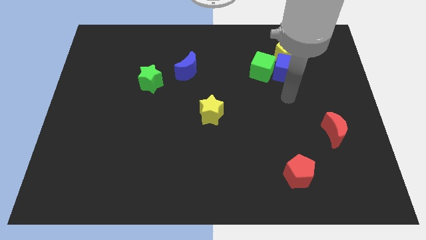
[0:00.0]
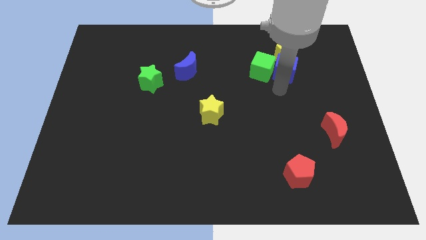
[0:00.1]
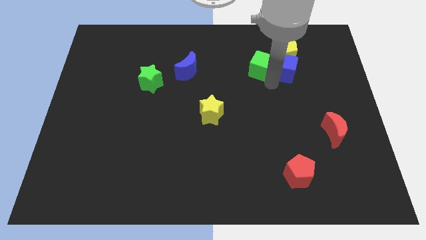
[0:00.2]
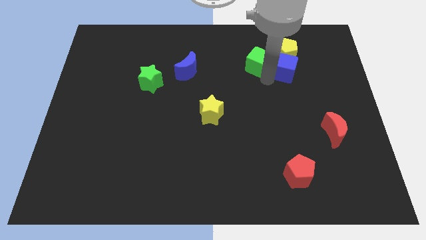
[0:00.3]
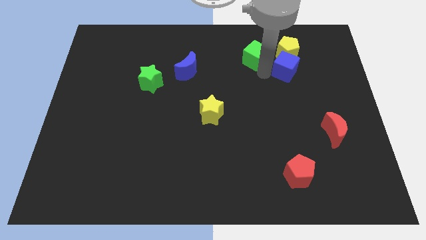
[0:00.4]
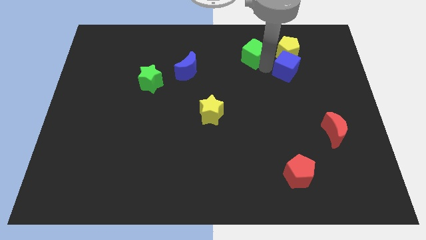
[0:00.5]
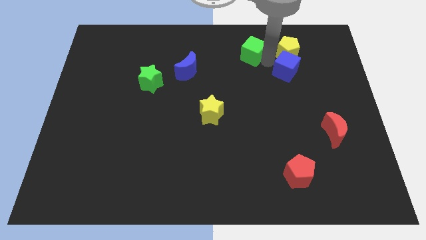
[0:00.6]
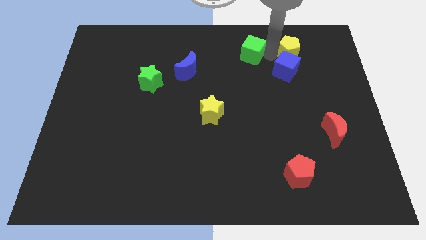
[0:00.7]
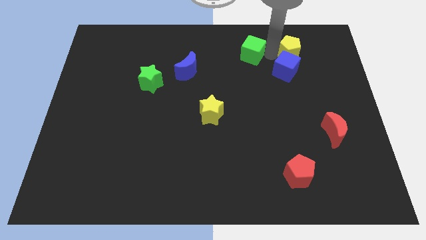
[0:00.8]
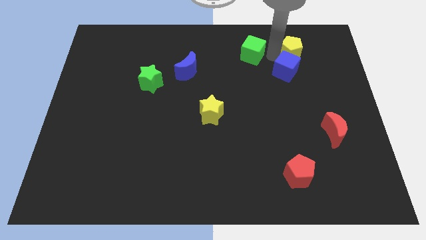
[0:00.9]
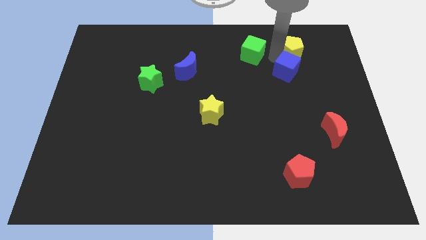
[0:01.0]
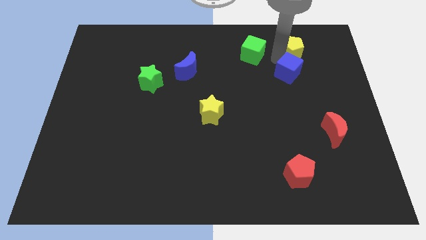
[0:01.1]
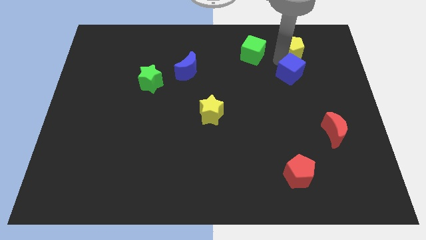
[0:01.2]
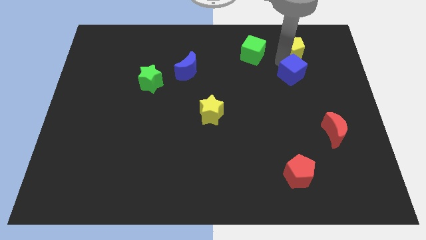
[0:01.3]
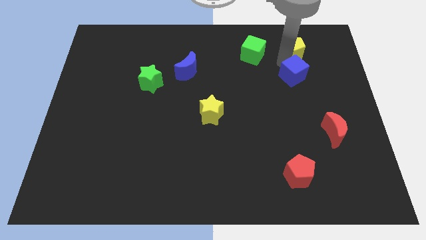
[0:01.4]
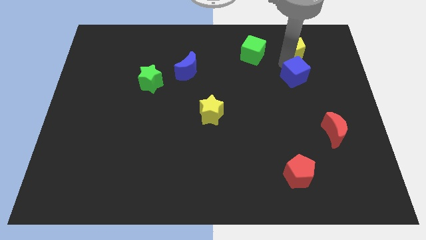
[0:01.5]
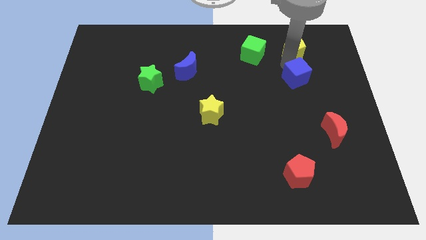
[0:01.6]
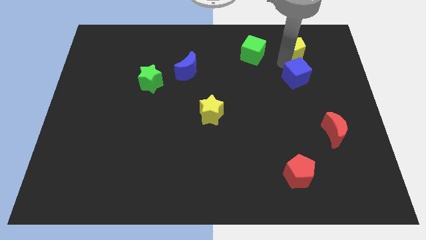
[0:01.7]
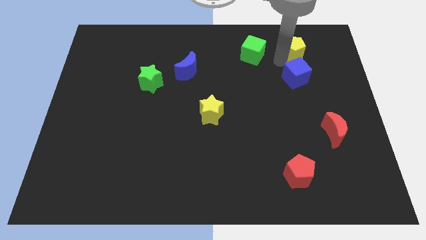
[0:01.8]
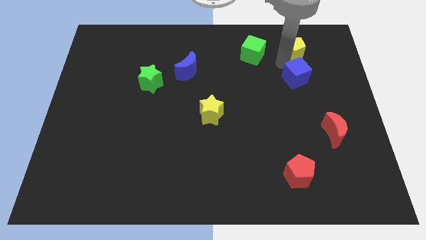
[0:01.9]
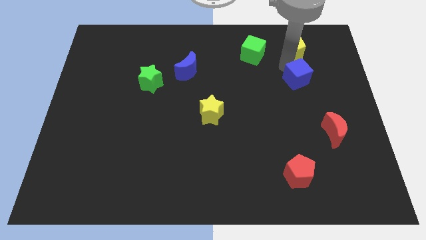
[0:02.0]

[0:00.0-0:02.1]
pull the blue cube apart from the green cube and yellow pentagon

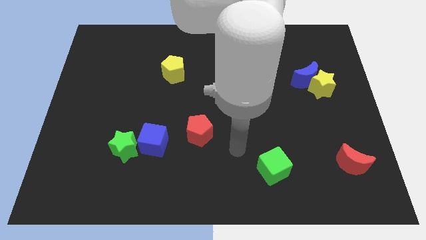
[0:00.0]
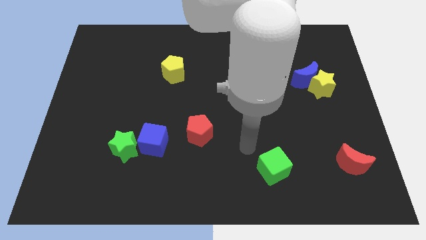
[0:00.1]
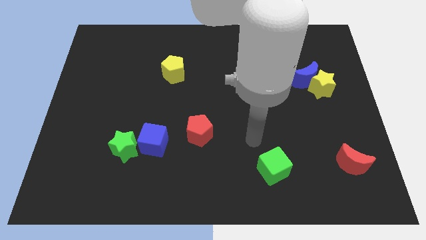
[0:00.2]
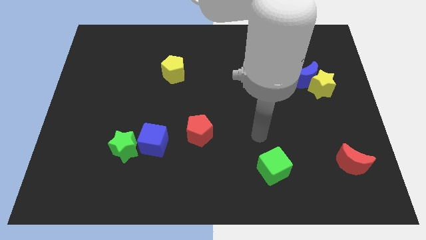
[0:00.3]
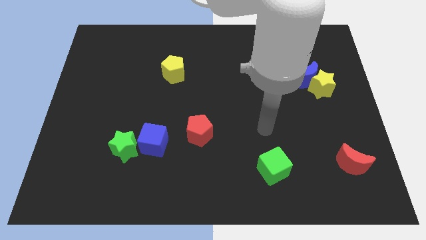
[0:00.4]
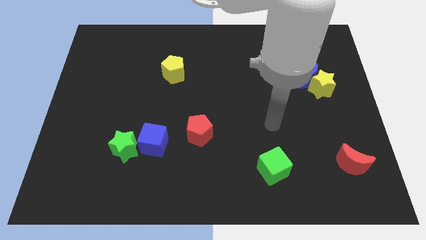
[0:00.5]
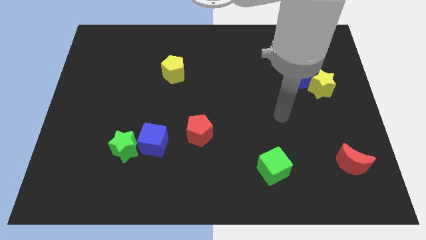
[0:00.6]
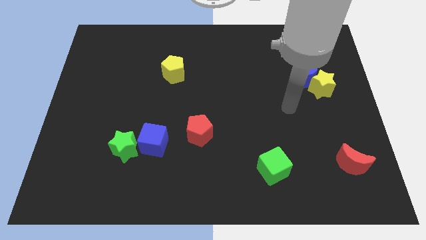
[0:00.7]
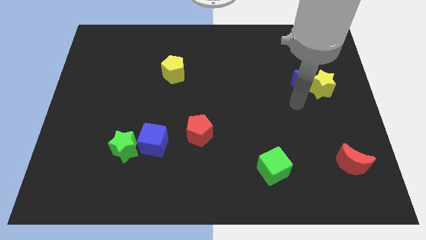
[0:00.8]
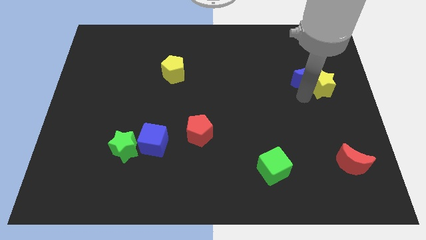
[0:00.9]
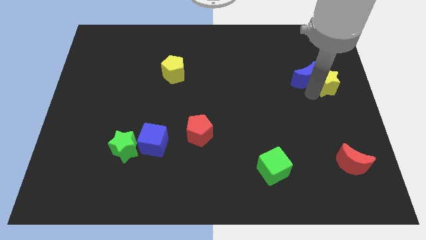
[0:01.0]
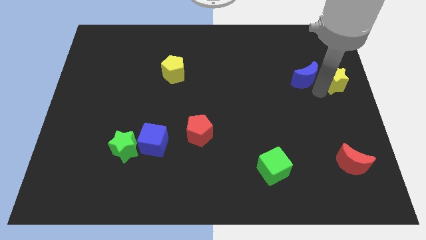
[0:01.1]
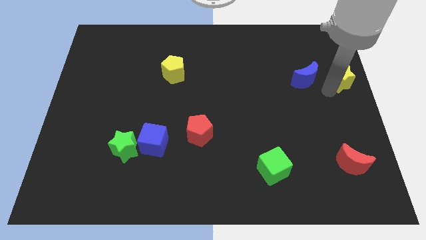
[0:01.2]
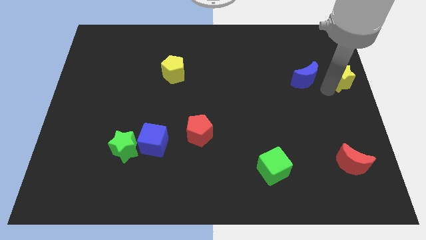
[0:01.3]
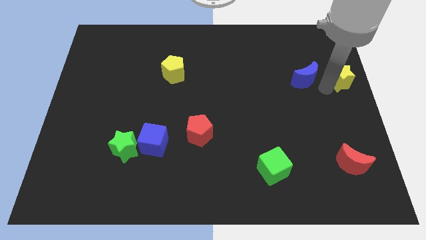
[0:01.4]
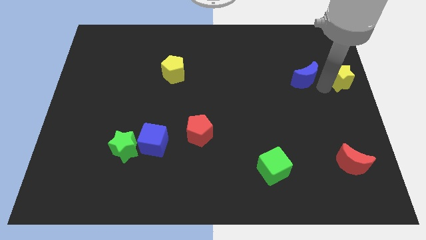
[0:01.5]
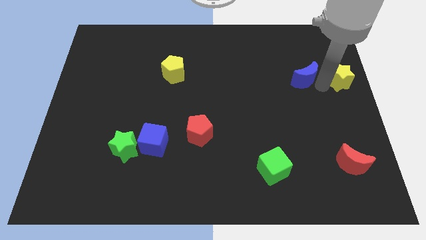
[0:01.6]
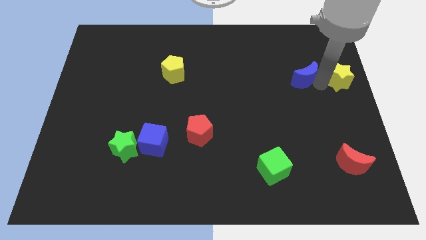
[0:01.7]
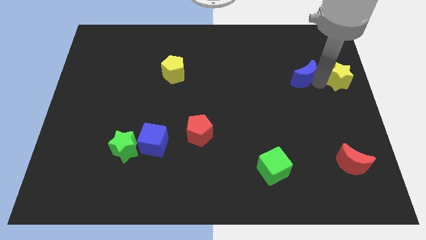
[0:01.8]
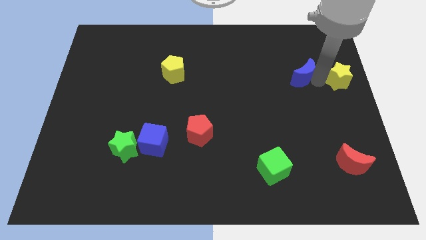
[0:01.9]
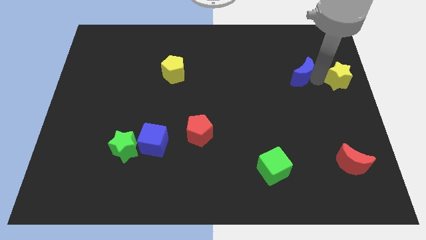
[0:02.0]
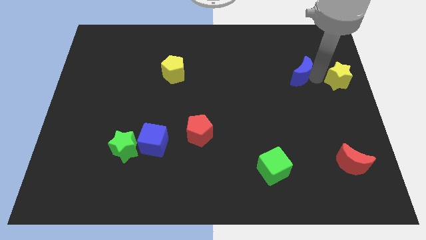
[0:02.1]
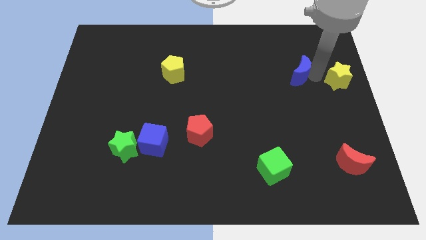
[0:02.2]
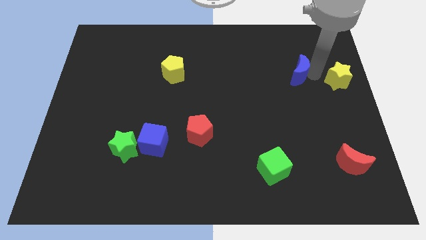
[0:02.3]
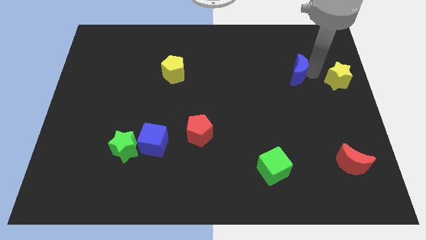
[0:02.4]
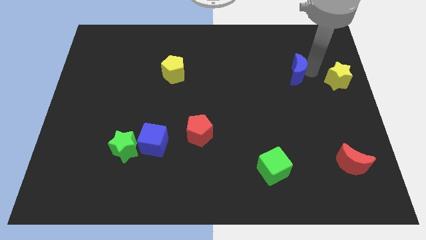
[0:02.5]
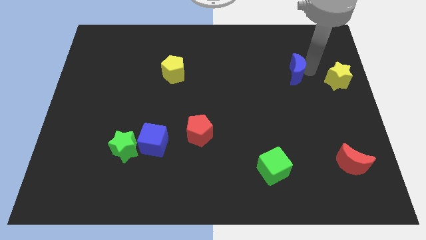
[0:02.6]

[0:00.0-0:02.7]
separate the blue moon from the yellow star

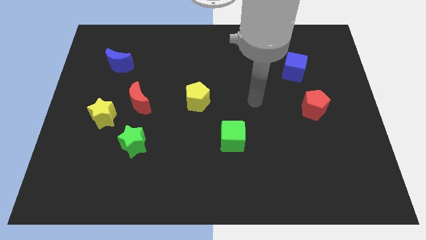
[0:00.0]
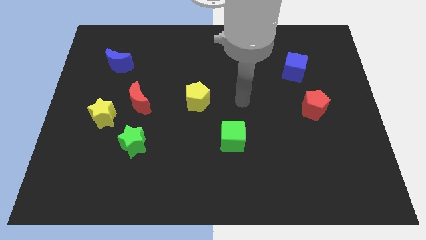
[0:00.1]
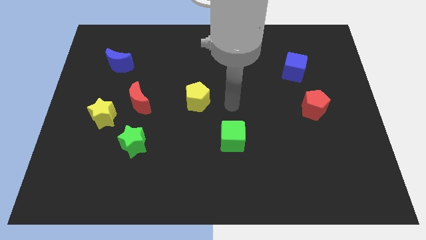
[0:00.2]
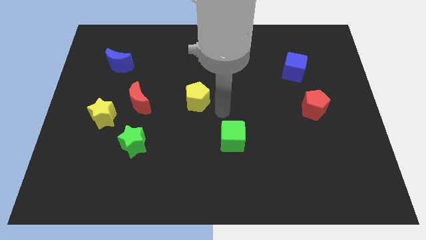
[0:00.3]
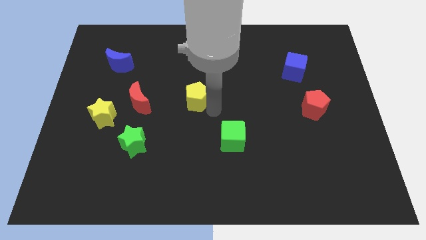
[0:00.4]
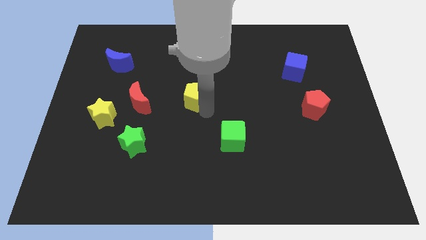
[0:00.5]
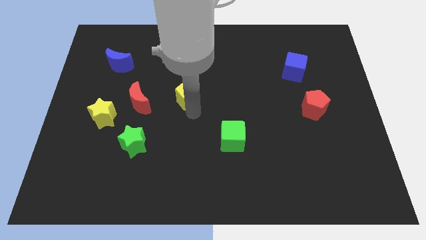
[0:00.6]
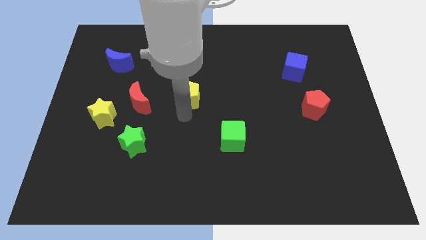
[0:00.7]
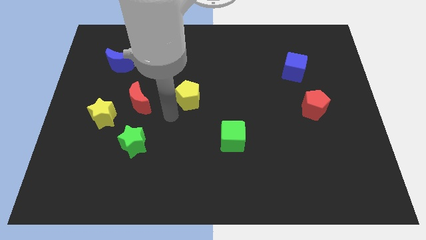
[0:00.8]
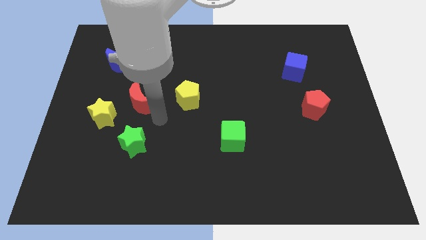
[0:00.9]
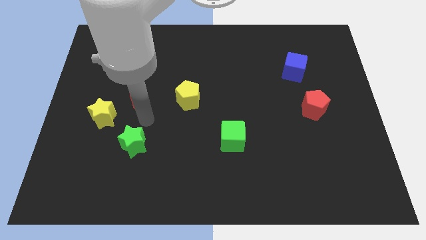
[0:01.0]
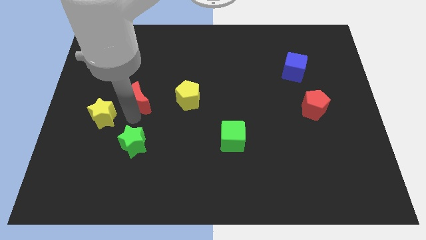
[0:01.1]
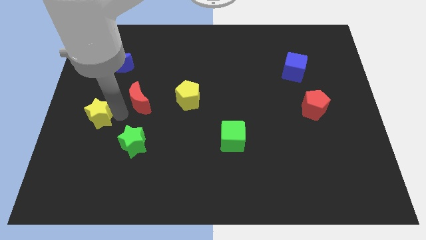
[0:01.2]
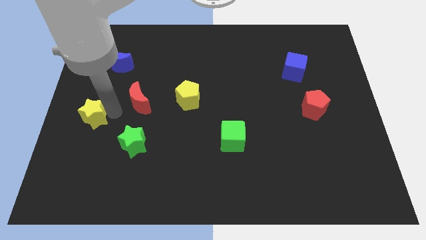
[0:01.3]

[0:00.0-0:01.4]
pull the red moon apart from the yellow star

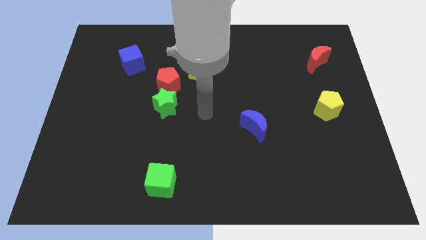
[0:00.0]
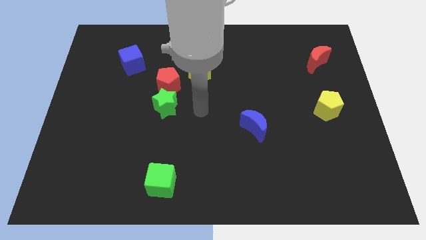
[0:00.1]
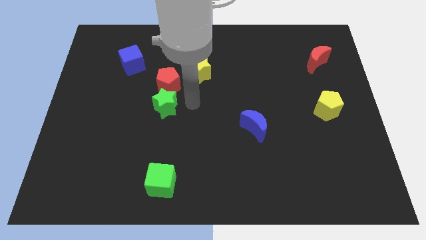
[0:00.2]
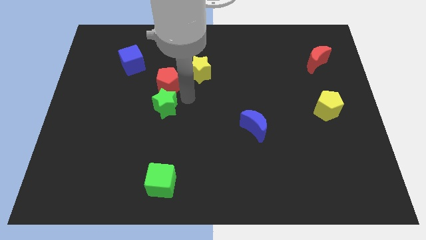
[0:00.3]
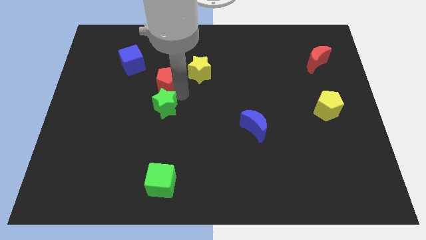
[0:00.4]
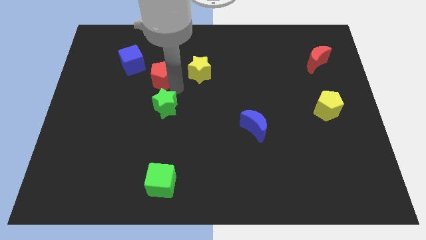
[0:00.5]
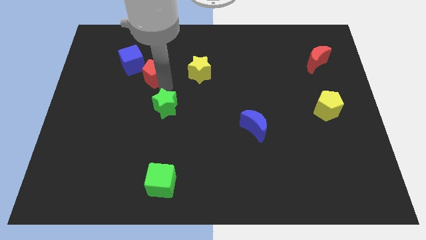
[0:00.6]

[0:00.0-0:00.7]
separate the green star from the red pentagon

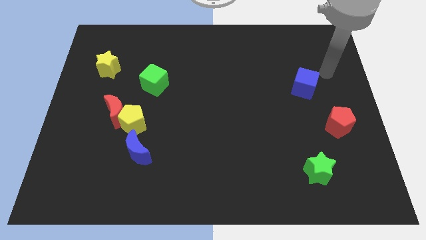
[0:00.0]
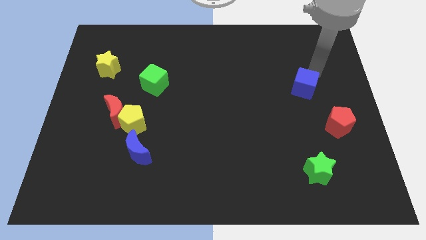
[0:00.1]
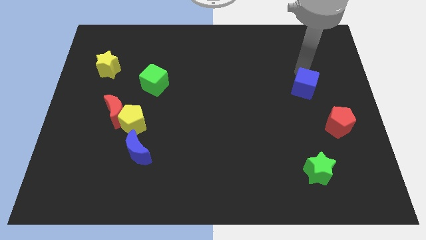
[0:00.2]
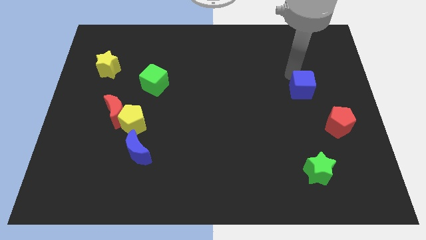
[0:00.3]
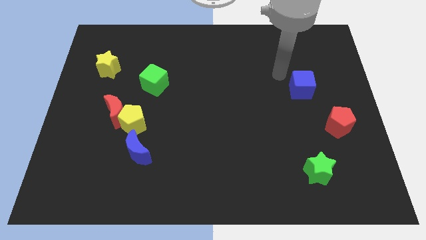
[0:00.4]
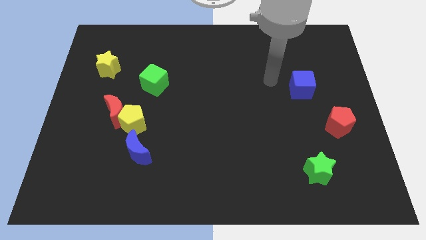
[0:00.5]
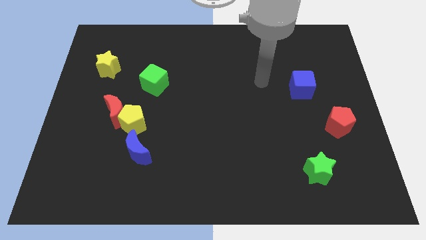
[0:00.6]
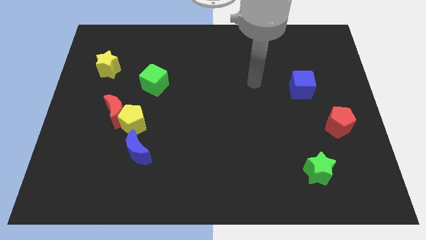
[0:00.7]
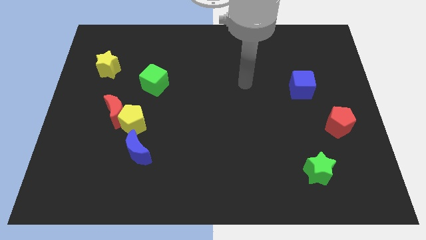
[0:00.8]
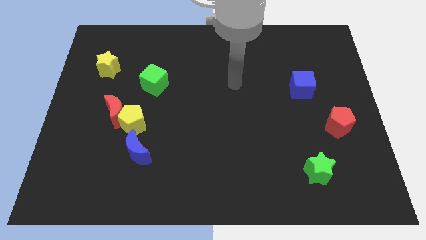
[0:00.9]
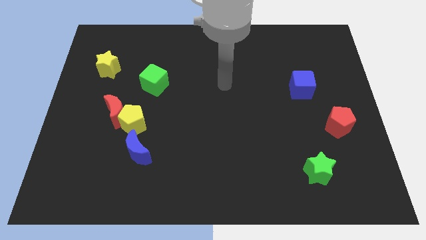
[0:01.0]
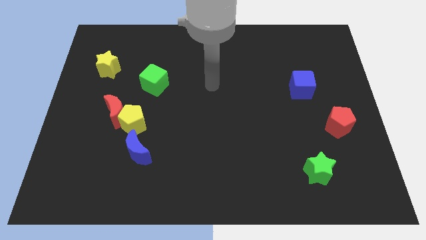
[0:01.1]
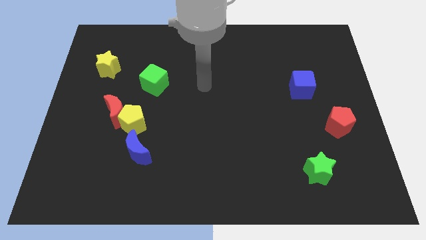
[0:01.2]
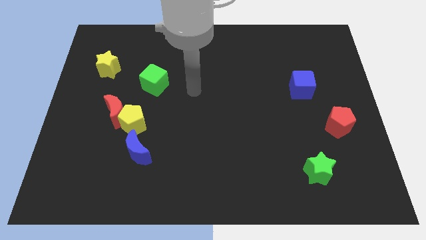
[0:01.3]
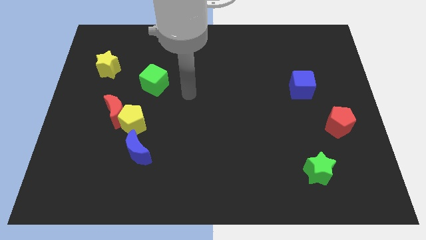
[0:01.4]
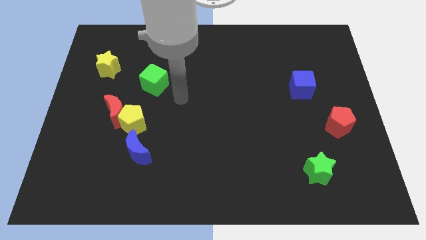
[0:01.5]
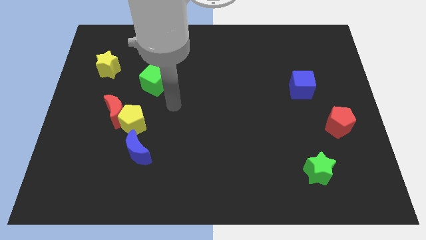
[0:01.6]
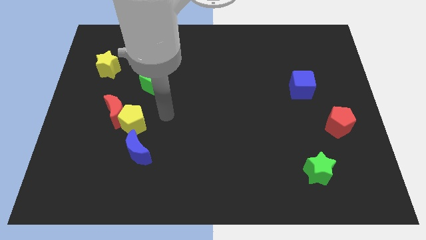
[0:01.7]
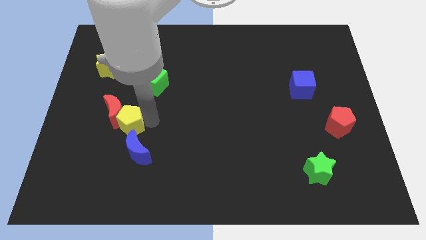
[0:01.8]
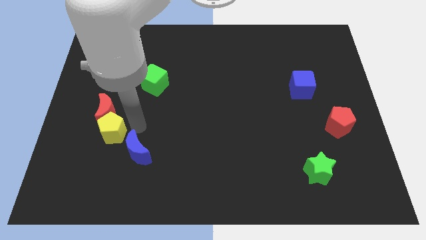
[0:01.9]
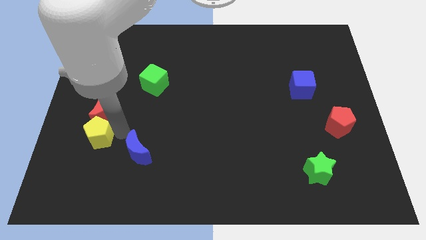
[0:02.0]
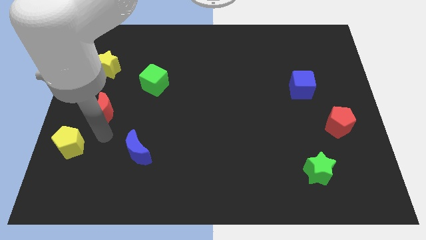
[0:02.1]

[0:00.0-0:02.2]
pull the red moon apart from the yellow pentagon

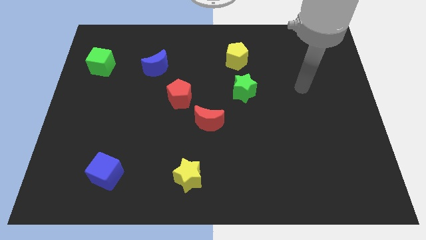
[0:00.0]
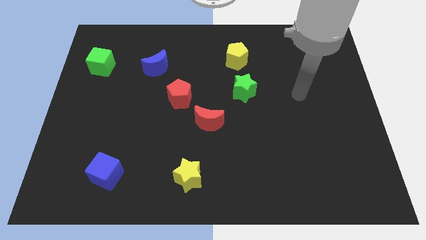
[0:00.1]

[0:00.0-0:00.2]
move the red moon away from the red pentagon
